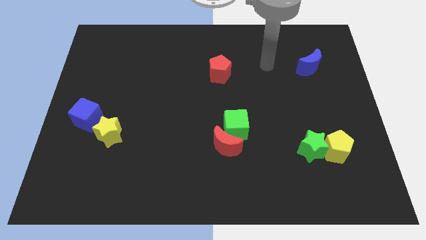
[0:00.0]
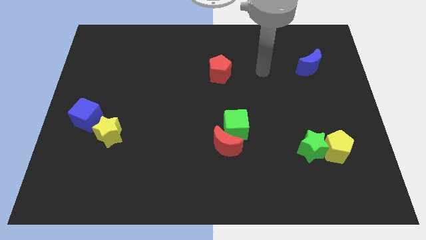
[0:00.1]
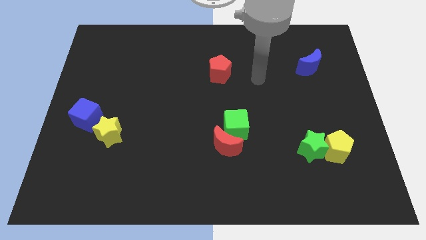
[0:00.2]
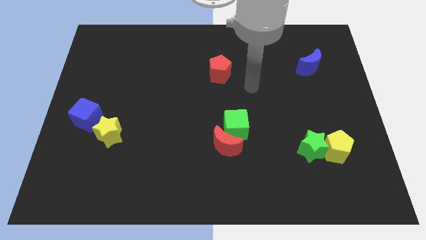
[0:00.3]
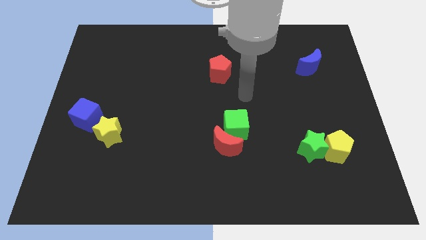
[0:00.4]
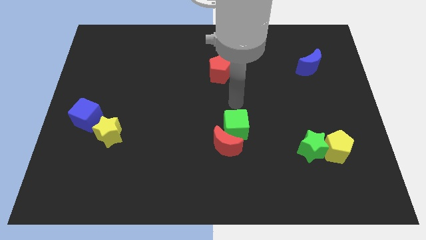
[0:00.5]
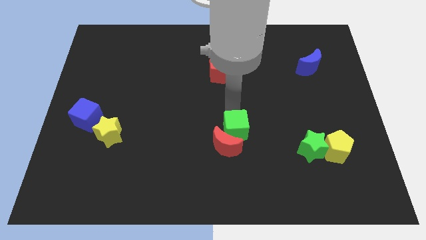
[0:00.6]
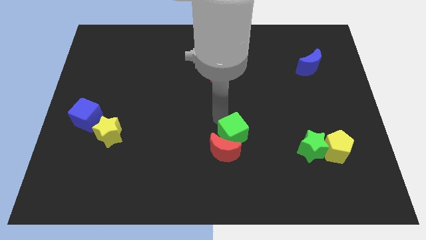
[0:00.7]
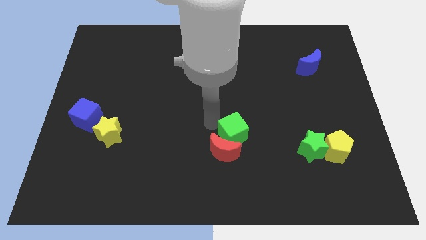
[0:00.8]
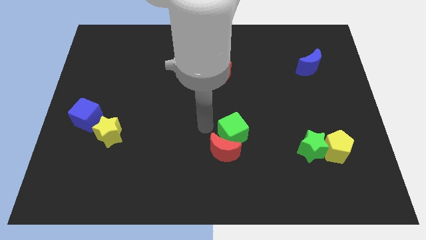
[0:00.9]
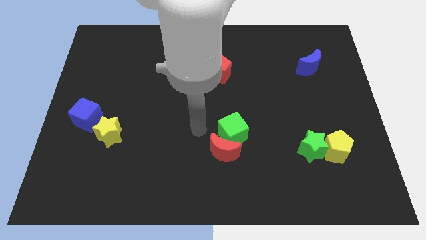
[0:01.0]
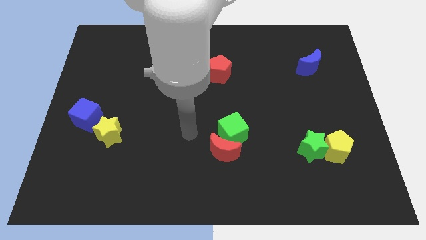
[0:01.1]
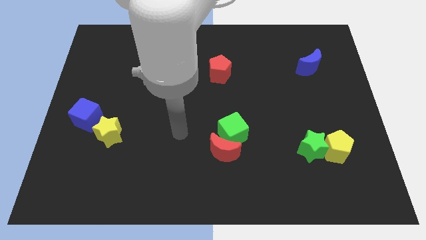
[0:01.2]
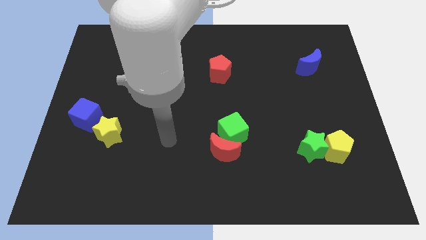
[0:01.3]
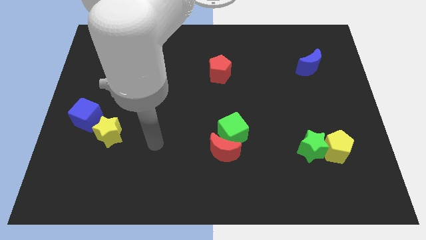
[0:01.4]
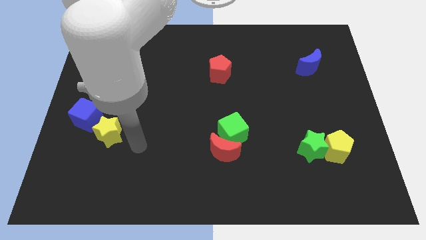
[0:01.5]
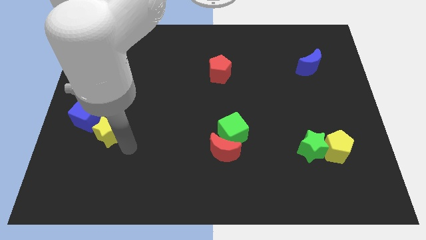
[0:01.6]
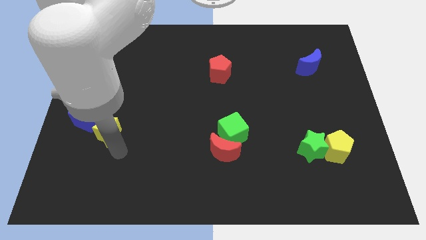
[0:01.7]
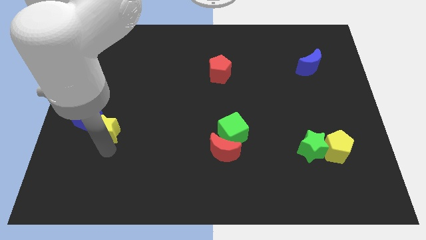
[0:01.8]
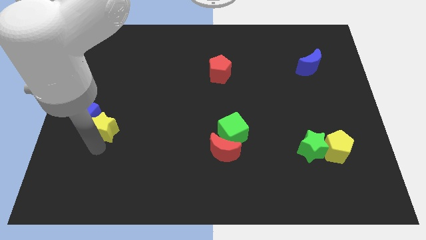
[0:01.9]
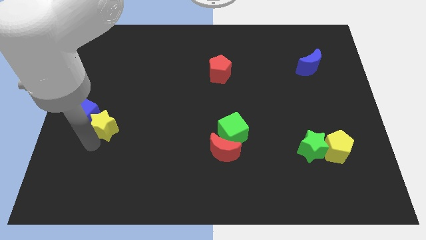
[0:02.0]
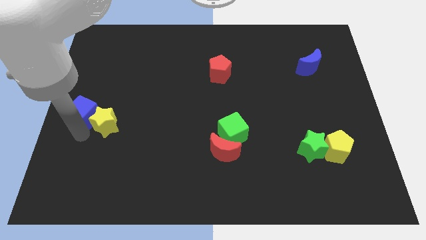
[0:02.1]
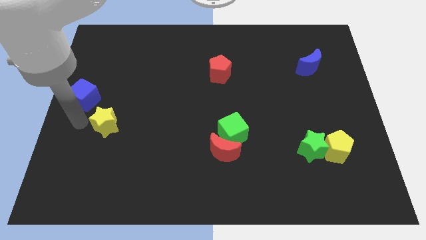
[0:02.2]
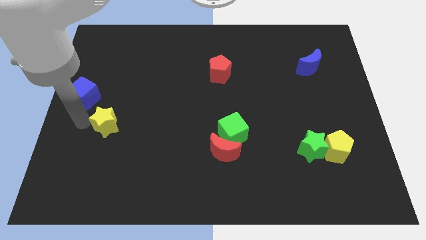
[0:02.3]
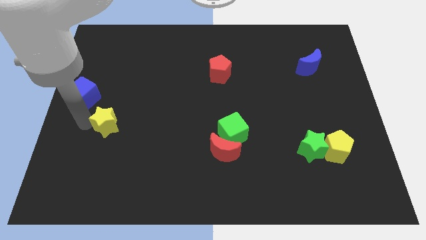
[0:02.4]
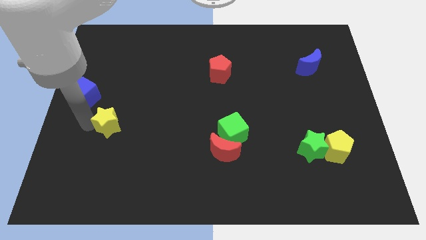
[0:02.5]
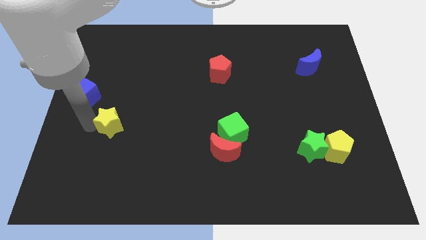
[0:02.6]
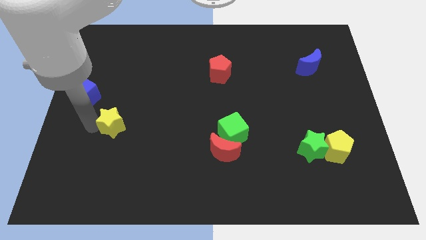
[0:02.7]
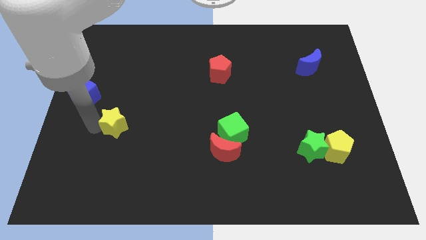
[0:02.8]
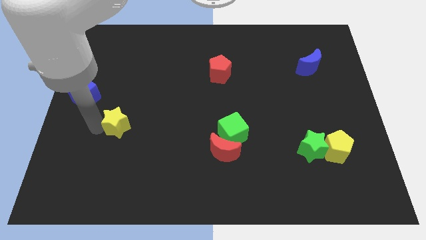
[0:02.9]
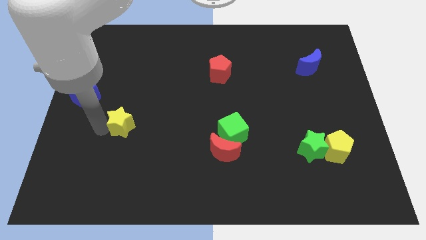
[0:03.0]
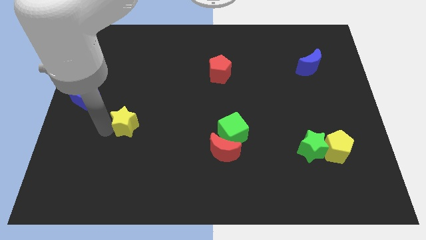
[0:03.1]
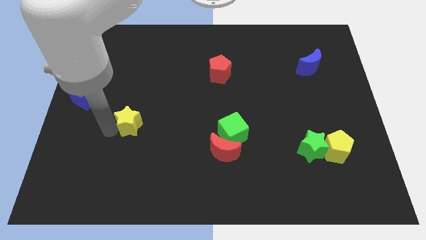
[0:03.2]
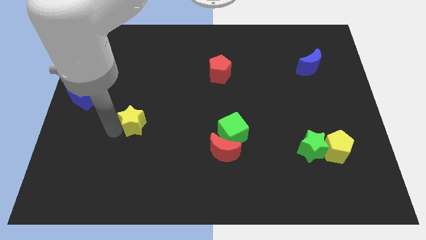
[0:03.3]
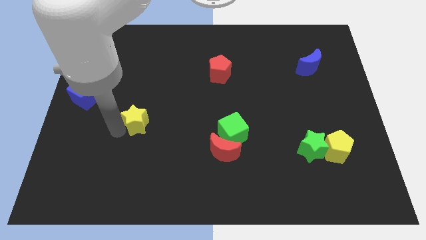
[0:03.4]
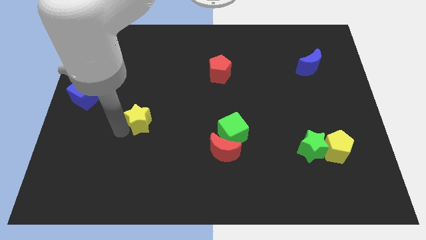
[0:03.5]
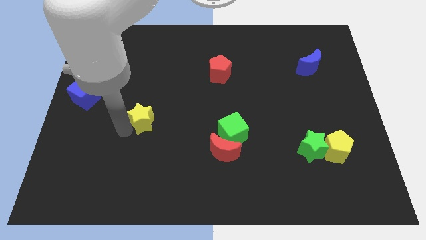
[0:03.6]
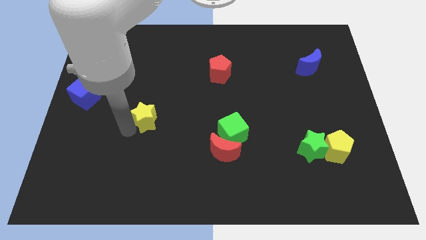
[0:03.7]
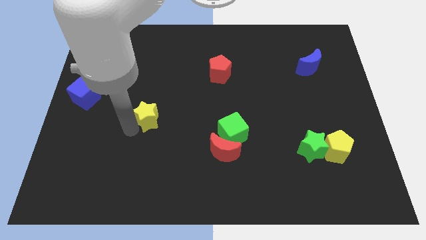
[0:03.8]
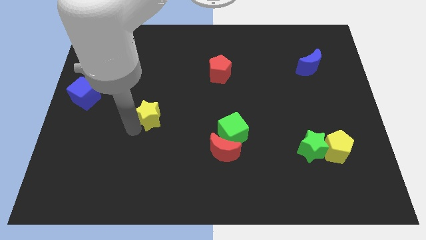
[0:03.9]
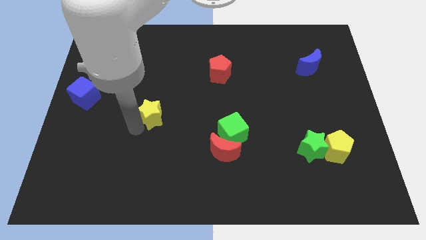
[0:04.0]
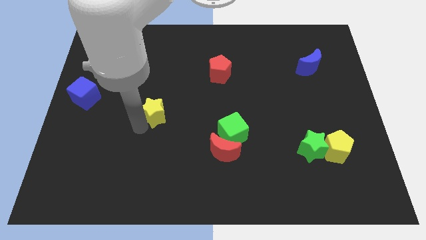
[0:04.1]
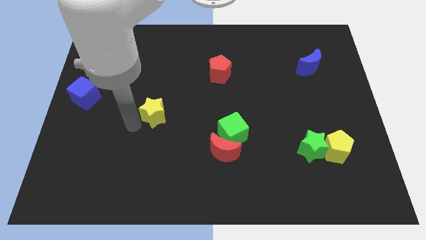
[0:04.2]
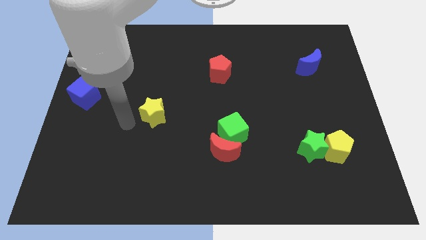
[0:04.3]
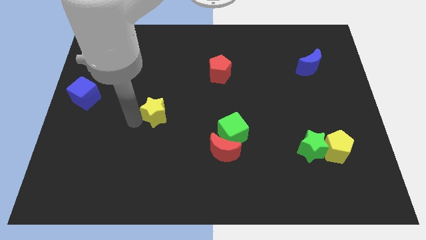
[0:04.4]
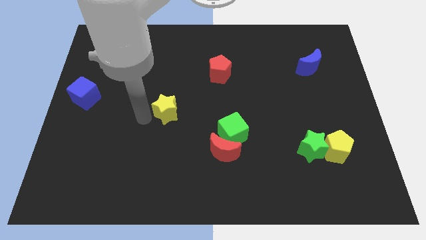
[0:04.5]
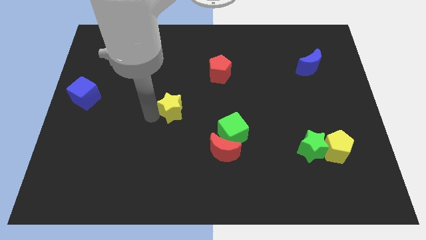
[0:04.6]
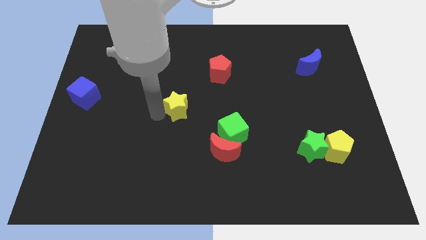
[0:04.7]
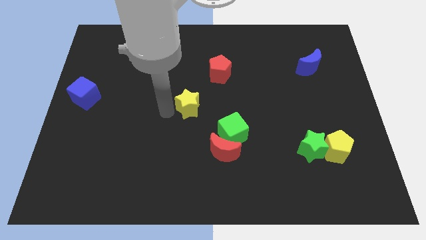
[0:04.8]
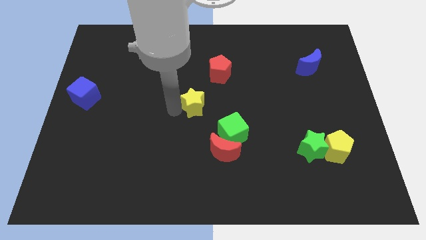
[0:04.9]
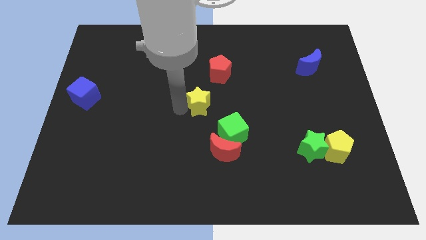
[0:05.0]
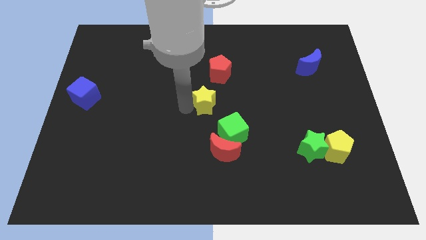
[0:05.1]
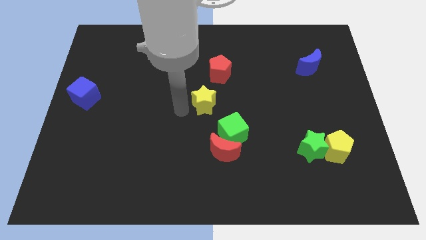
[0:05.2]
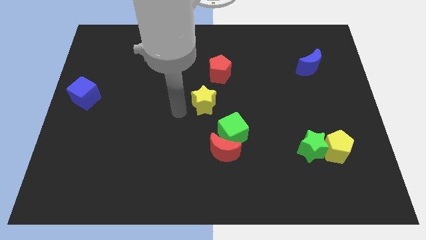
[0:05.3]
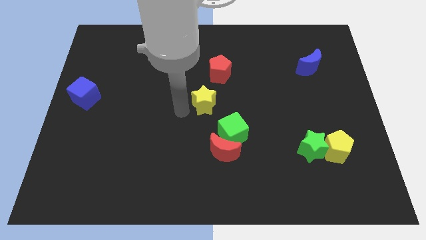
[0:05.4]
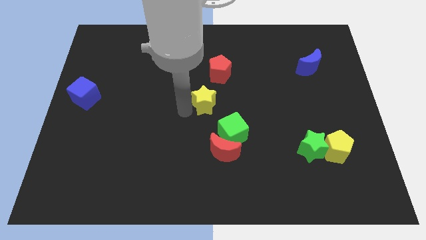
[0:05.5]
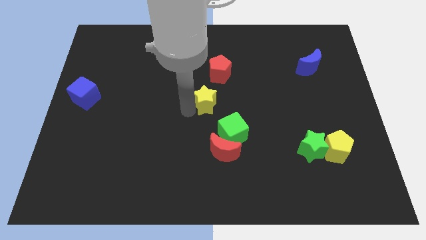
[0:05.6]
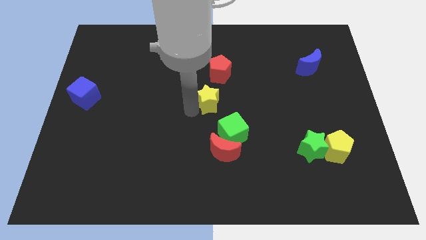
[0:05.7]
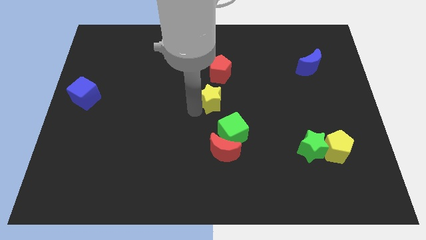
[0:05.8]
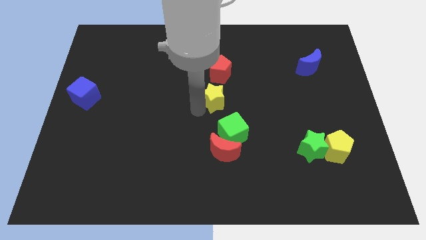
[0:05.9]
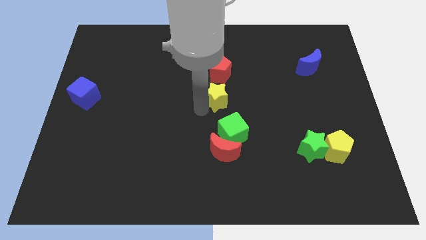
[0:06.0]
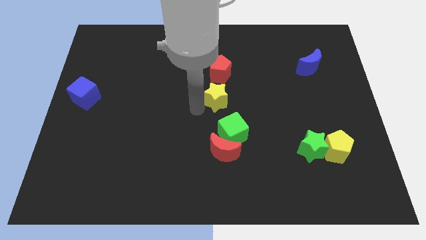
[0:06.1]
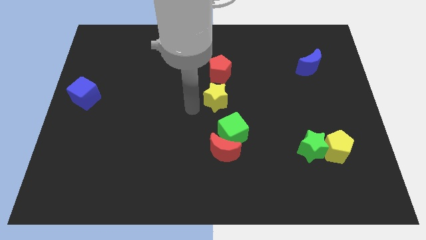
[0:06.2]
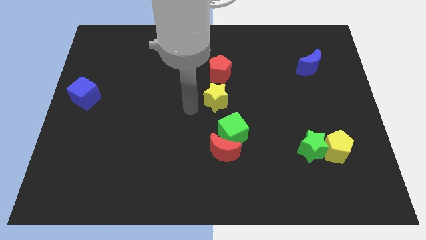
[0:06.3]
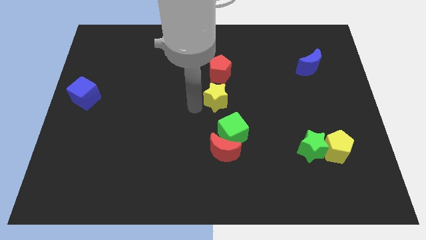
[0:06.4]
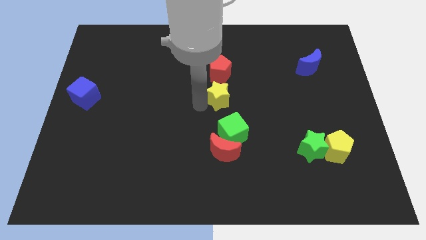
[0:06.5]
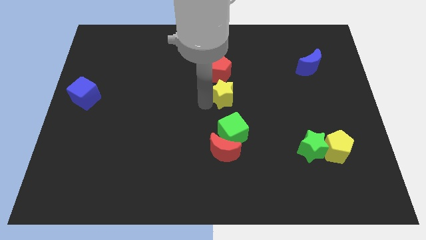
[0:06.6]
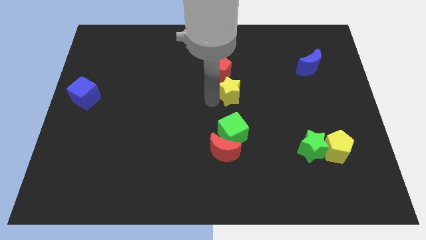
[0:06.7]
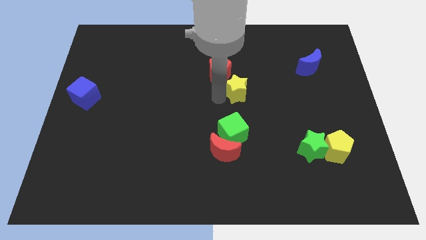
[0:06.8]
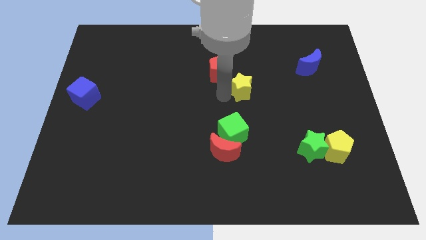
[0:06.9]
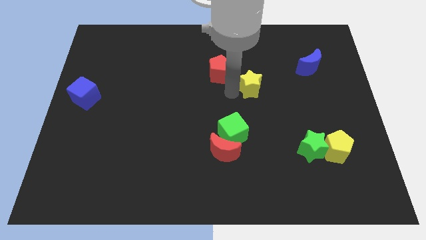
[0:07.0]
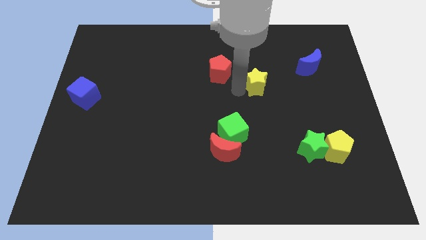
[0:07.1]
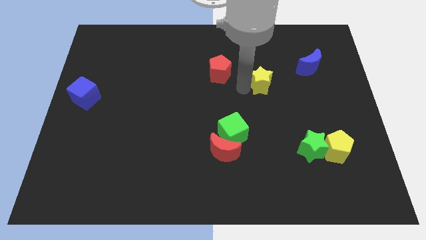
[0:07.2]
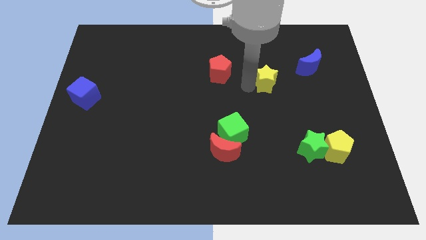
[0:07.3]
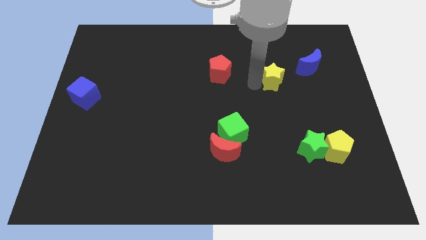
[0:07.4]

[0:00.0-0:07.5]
move the yellow star to the bottom left of the blue moon
